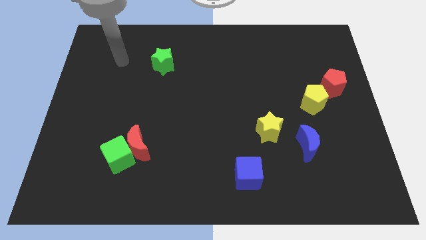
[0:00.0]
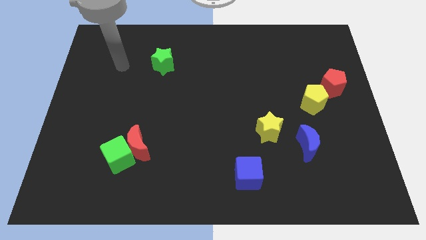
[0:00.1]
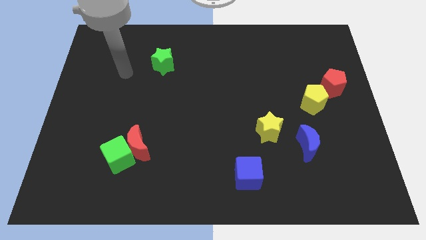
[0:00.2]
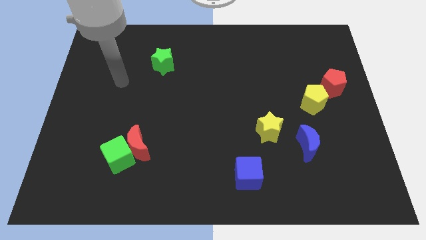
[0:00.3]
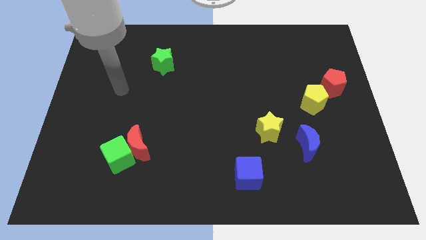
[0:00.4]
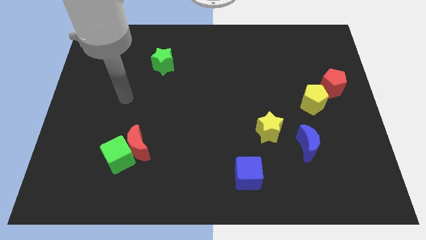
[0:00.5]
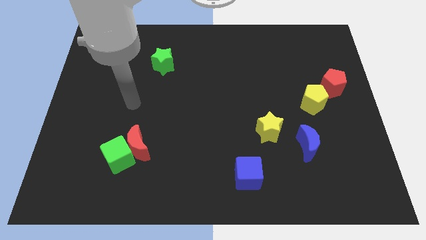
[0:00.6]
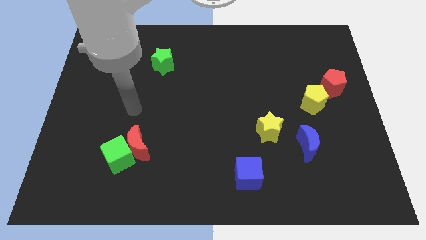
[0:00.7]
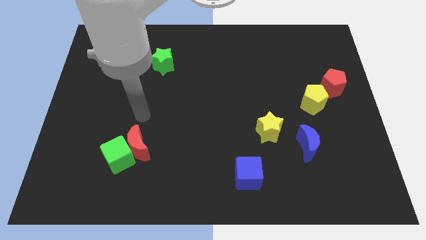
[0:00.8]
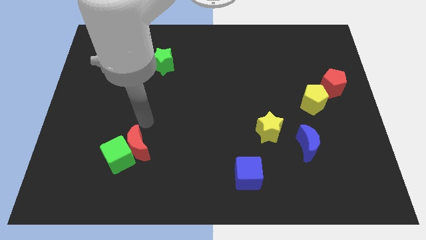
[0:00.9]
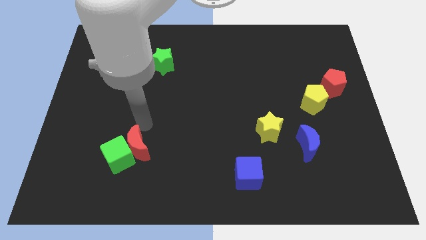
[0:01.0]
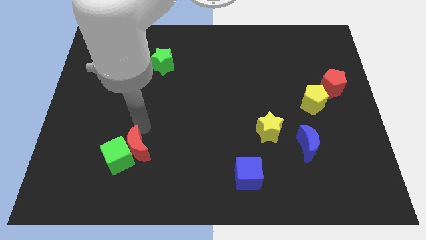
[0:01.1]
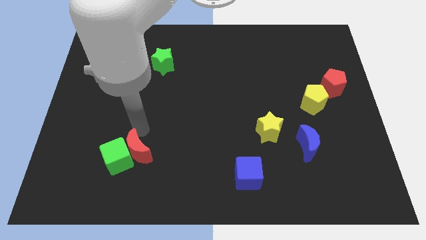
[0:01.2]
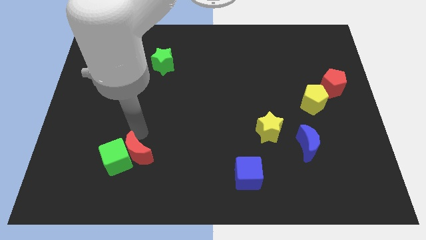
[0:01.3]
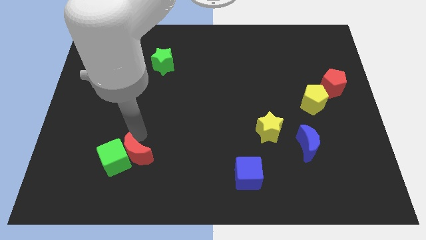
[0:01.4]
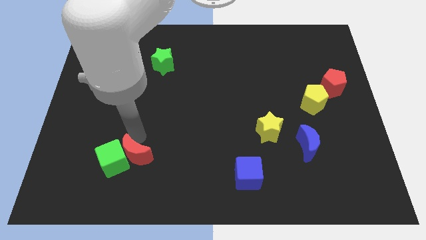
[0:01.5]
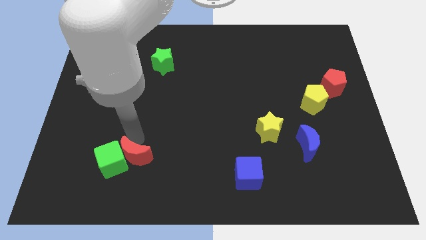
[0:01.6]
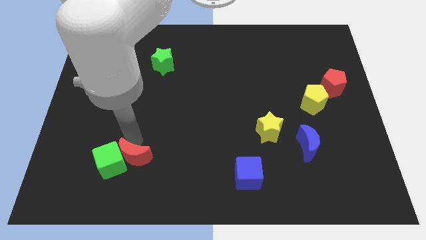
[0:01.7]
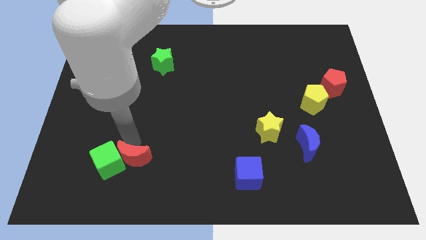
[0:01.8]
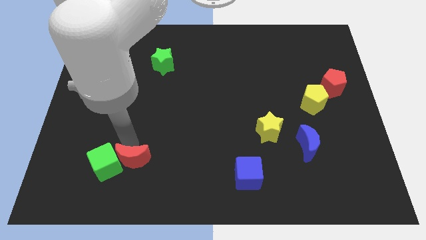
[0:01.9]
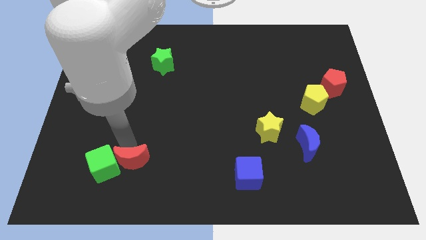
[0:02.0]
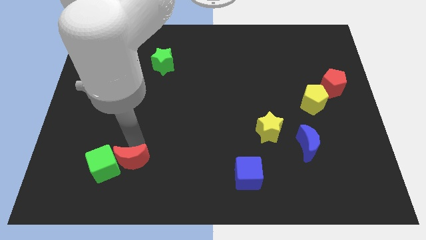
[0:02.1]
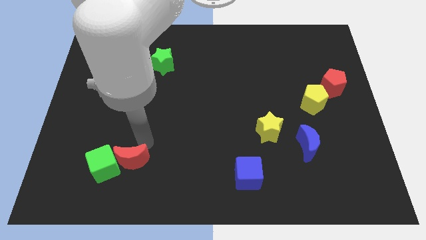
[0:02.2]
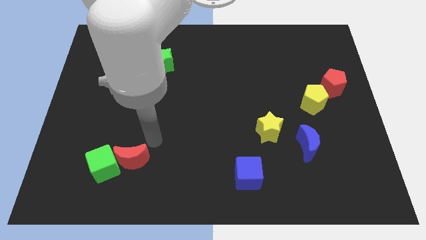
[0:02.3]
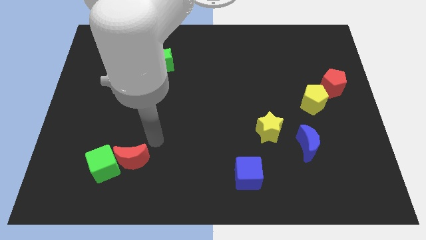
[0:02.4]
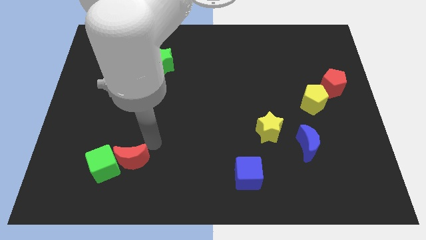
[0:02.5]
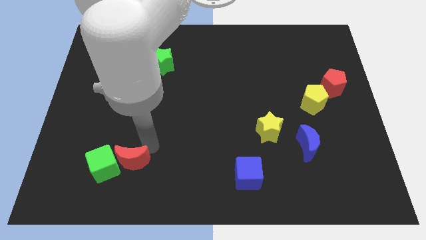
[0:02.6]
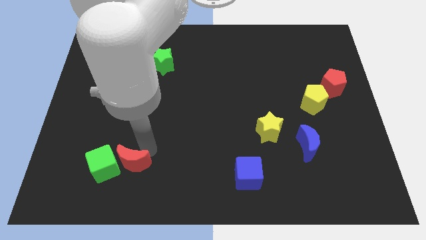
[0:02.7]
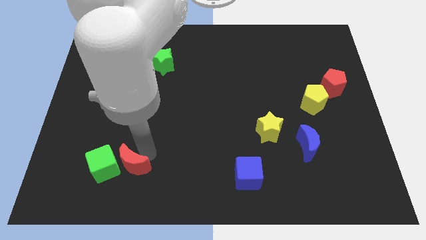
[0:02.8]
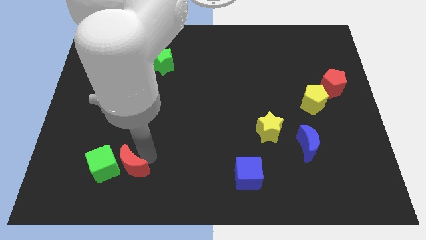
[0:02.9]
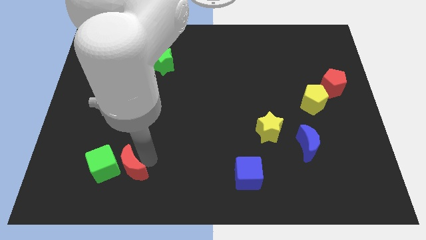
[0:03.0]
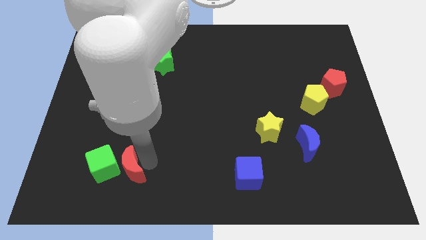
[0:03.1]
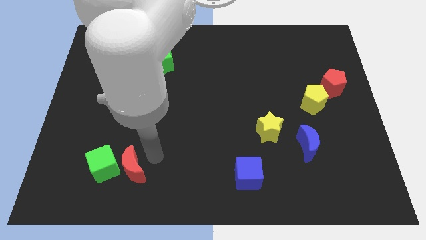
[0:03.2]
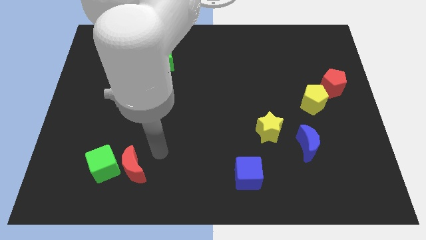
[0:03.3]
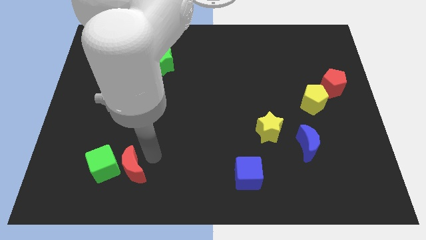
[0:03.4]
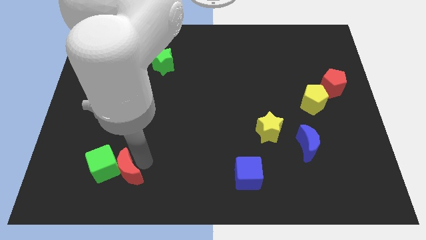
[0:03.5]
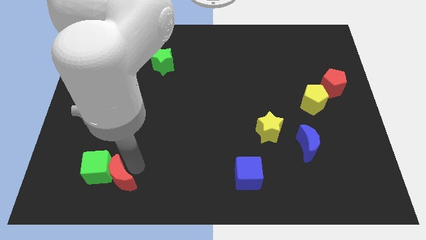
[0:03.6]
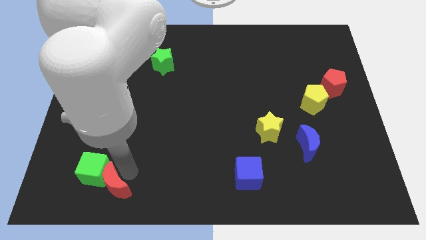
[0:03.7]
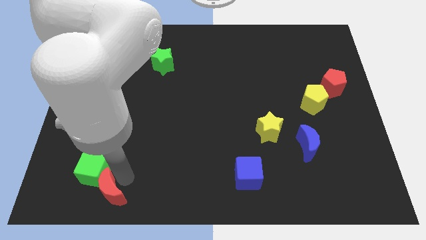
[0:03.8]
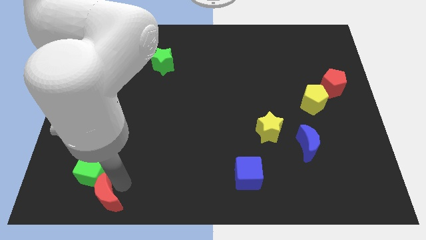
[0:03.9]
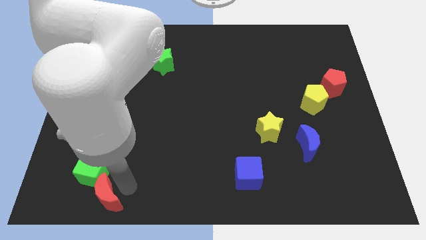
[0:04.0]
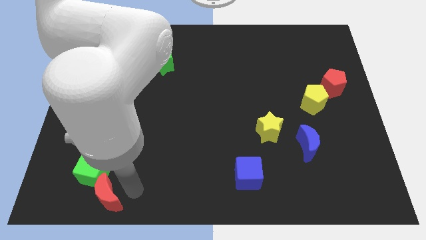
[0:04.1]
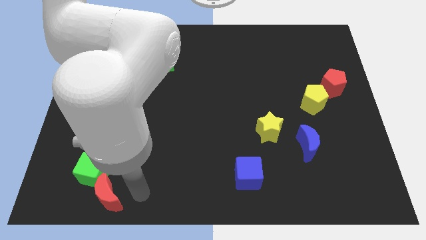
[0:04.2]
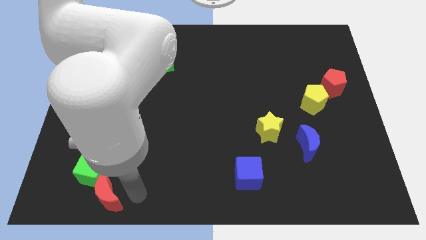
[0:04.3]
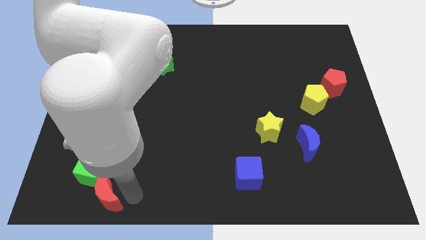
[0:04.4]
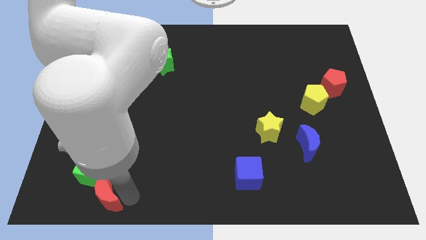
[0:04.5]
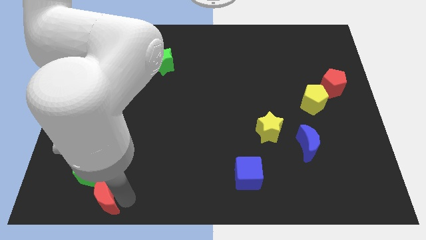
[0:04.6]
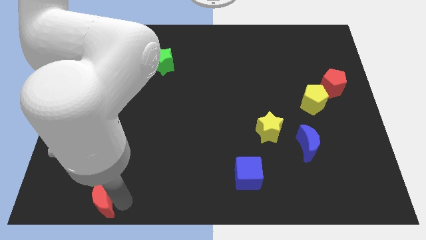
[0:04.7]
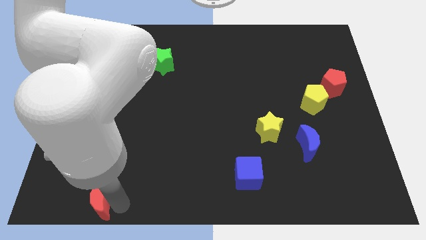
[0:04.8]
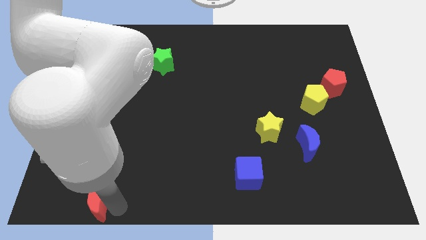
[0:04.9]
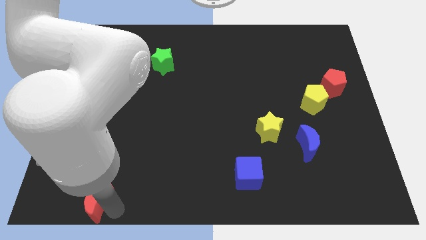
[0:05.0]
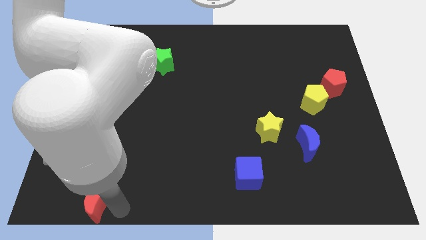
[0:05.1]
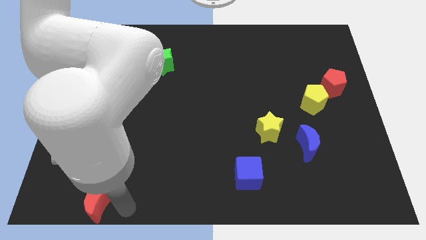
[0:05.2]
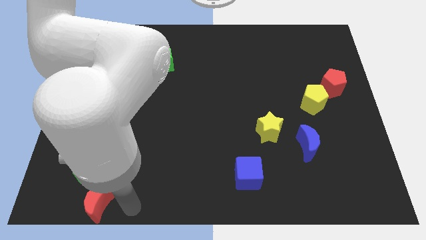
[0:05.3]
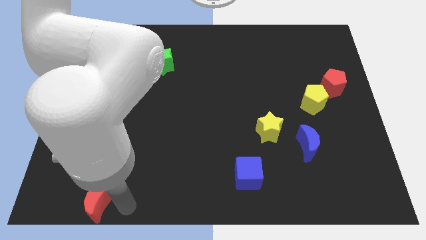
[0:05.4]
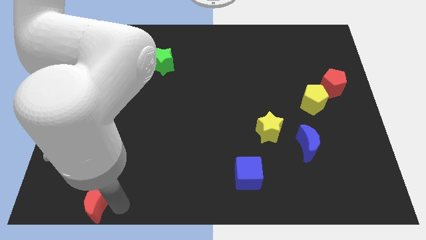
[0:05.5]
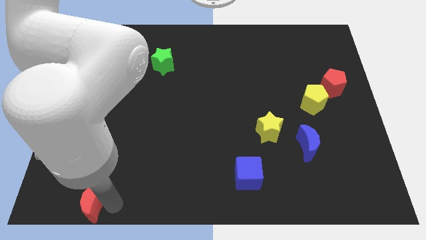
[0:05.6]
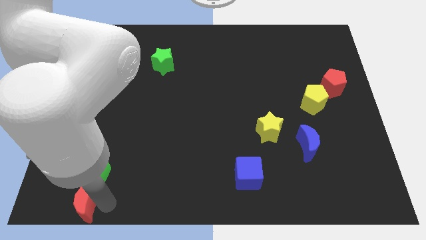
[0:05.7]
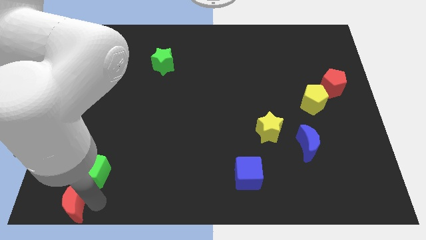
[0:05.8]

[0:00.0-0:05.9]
slide the red moon to the lower left corner
